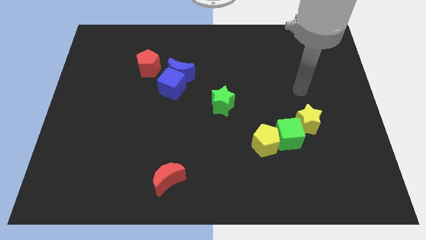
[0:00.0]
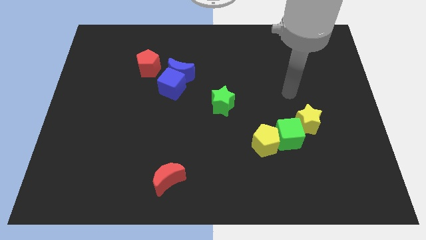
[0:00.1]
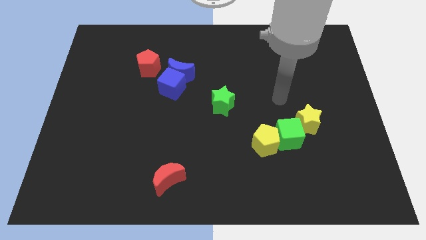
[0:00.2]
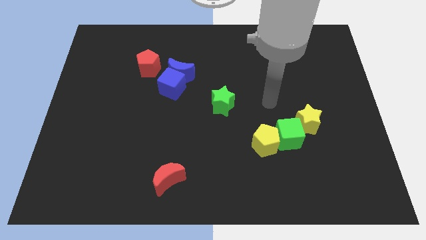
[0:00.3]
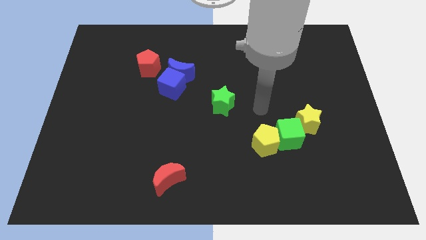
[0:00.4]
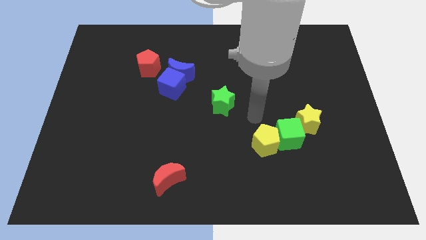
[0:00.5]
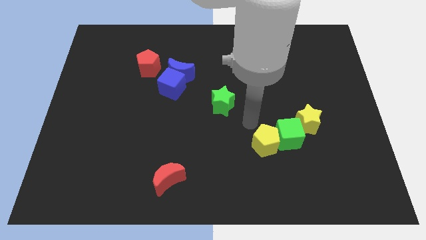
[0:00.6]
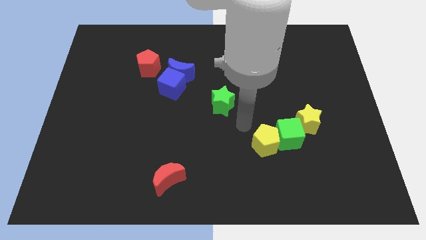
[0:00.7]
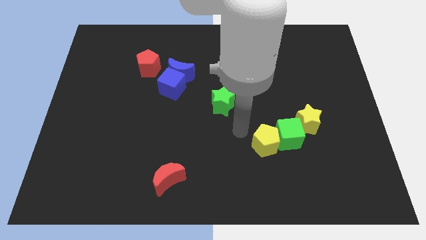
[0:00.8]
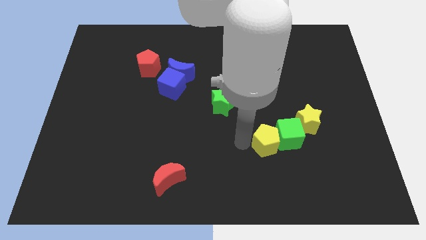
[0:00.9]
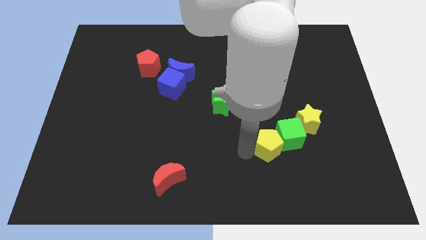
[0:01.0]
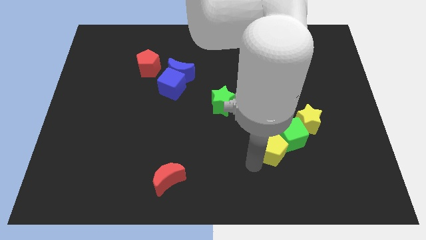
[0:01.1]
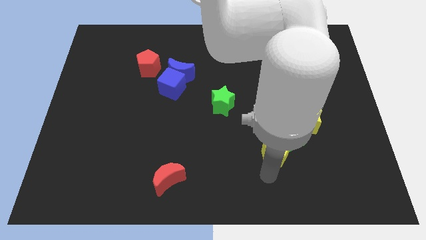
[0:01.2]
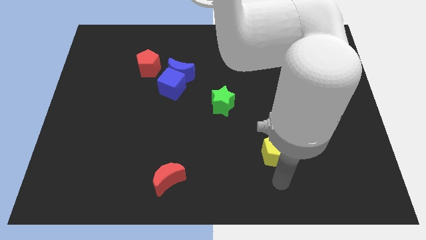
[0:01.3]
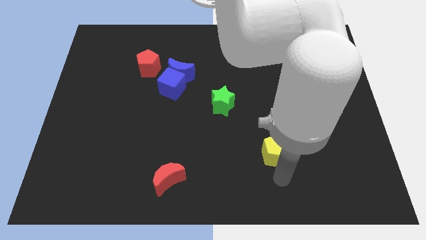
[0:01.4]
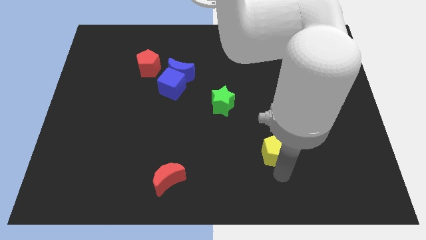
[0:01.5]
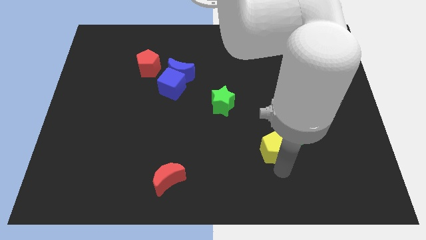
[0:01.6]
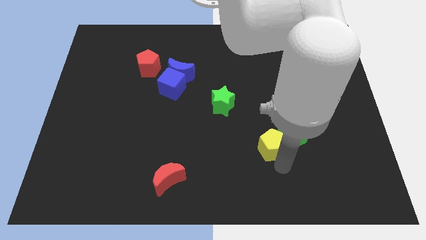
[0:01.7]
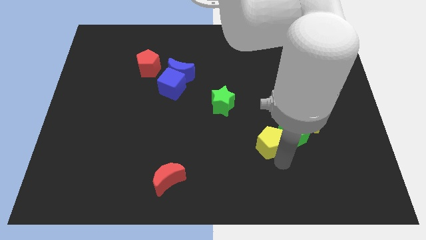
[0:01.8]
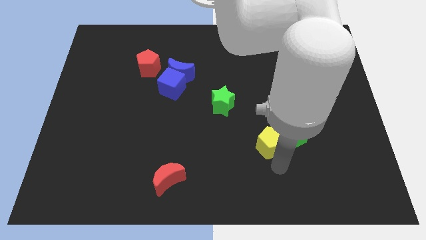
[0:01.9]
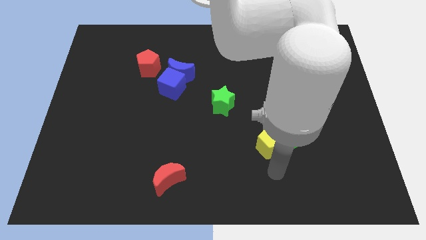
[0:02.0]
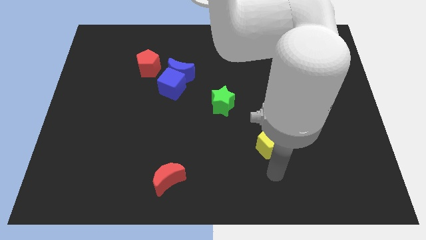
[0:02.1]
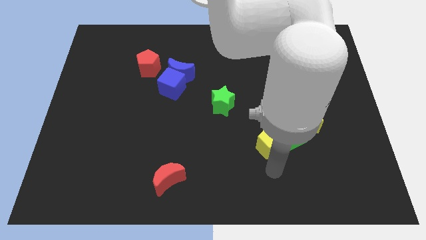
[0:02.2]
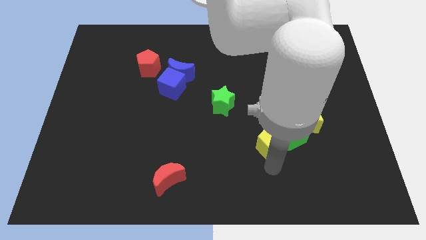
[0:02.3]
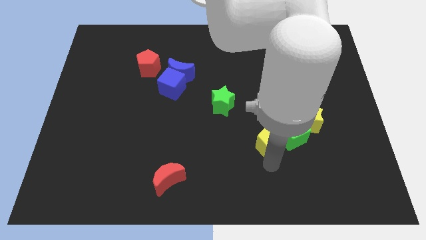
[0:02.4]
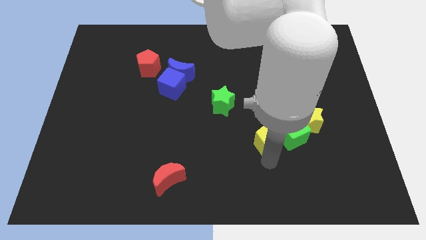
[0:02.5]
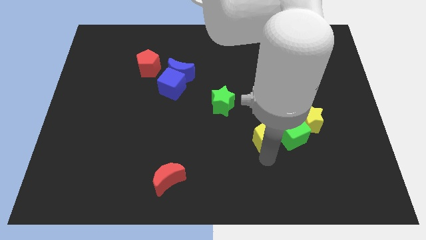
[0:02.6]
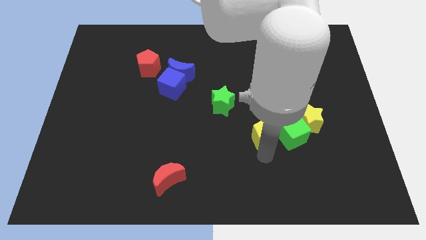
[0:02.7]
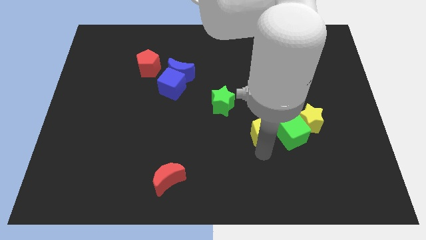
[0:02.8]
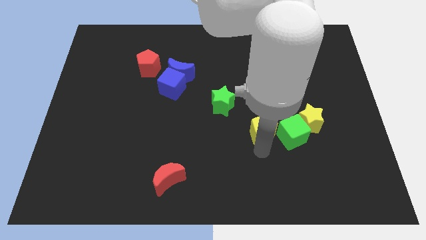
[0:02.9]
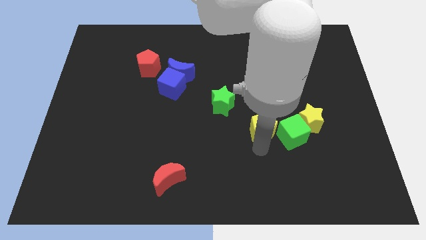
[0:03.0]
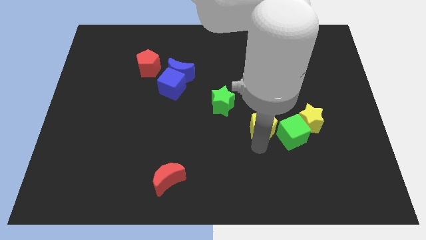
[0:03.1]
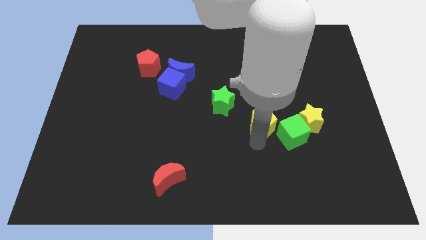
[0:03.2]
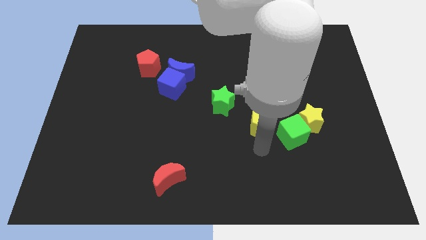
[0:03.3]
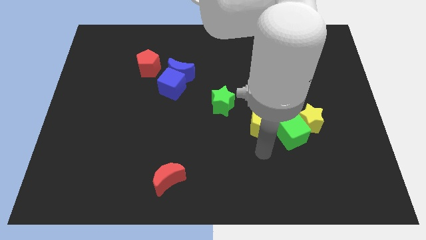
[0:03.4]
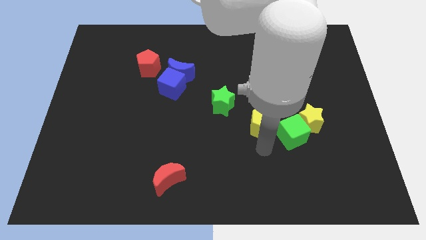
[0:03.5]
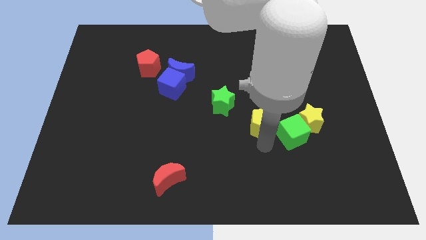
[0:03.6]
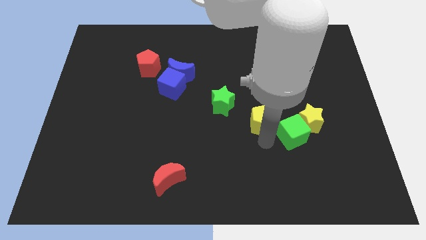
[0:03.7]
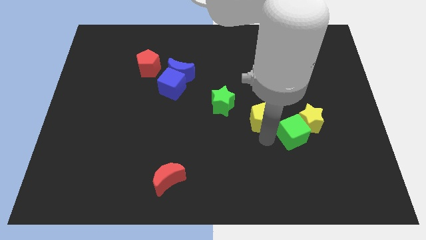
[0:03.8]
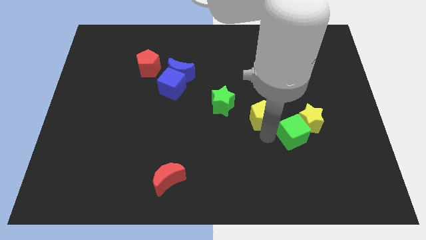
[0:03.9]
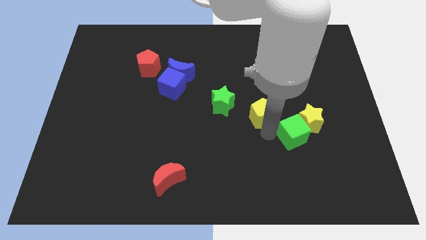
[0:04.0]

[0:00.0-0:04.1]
move the yellow pentagon upwards a little

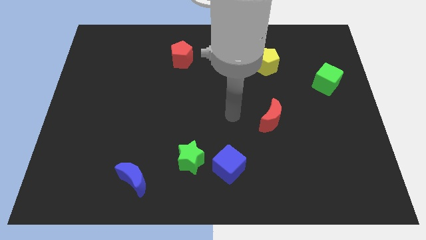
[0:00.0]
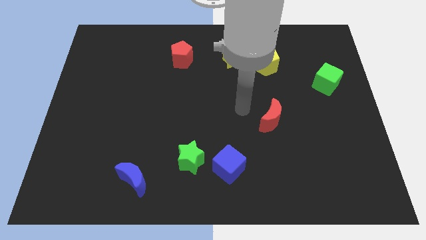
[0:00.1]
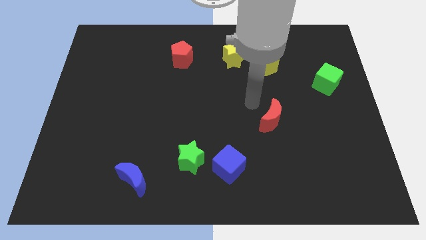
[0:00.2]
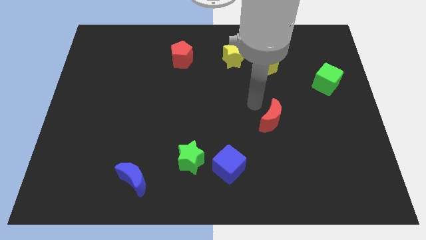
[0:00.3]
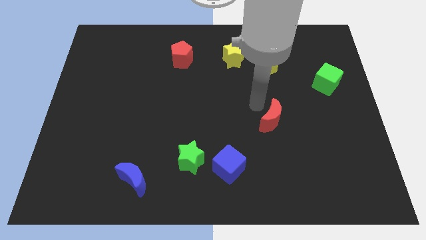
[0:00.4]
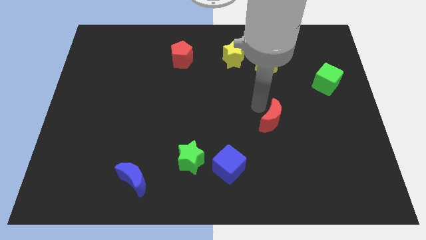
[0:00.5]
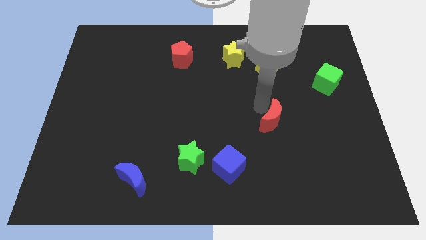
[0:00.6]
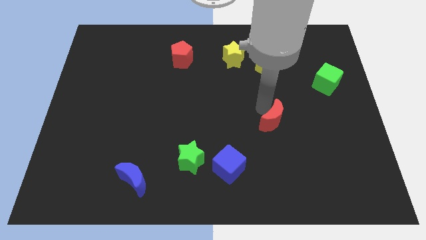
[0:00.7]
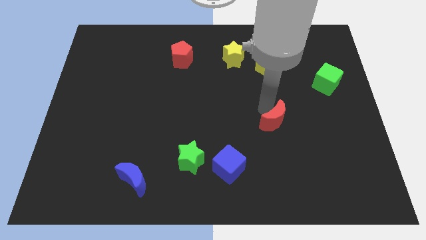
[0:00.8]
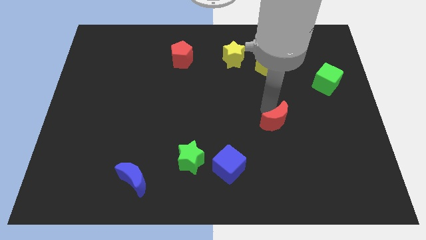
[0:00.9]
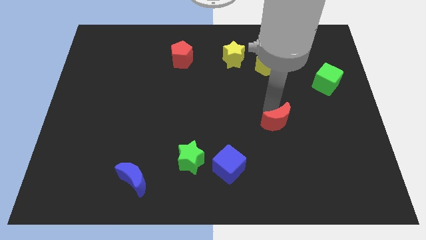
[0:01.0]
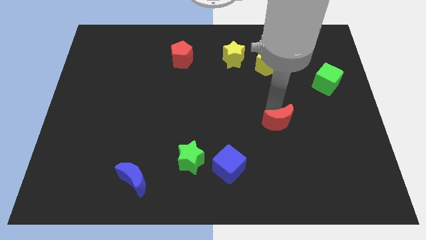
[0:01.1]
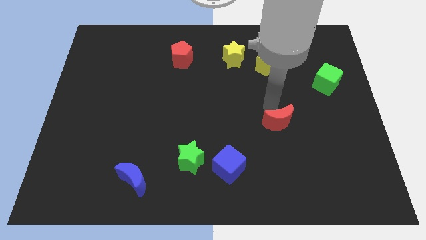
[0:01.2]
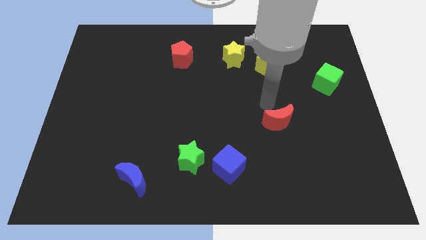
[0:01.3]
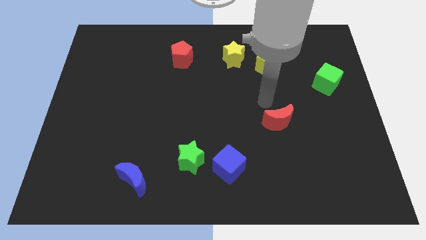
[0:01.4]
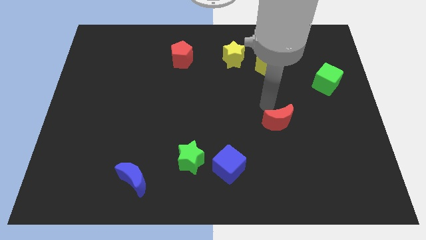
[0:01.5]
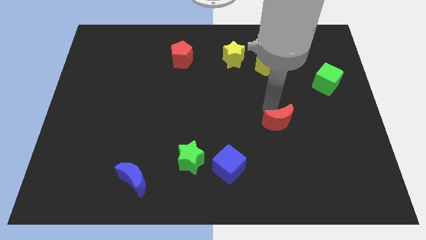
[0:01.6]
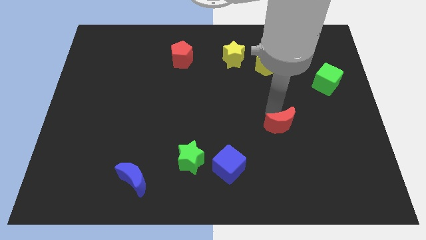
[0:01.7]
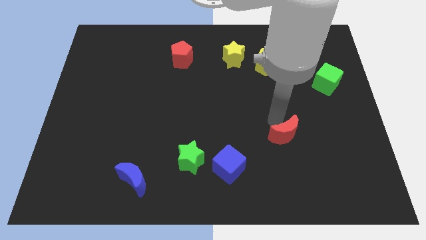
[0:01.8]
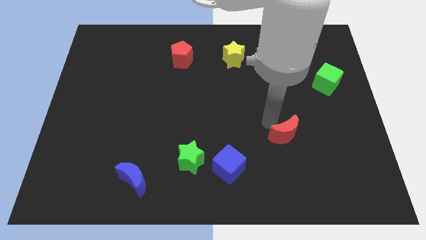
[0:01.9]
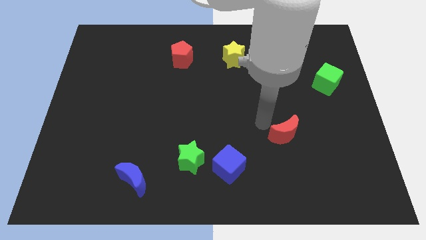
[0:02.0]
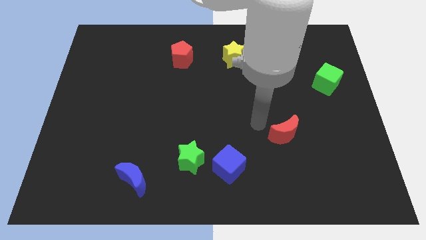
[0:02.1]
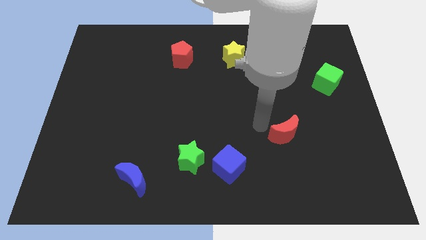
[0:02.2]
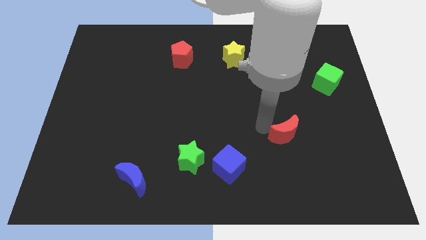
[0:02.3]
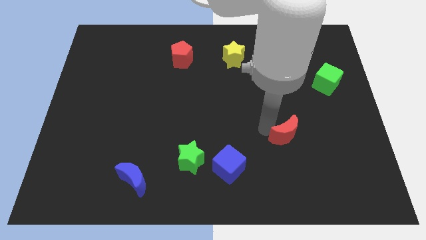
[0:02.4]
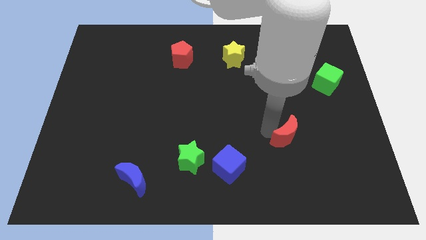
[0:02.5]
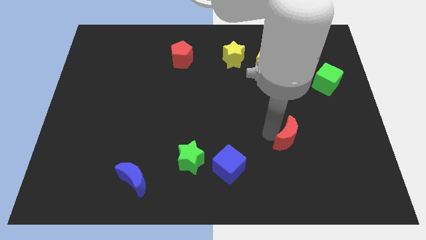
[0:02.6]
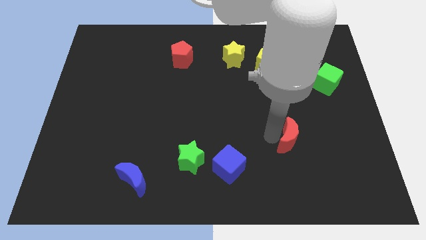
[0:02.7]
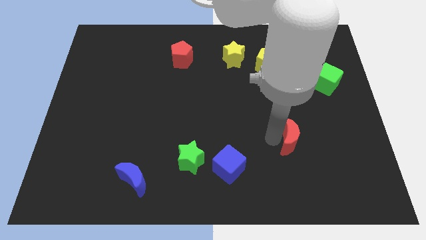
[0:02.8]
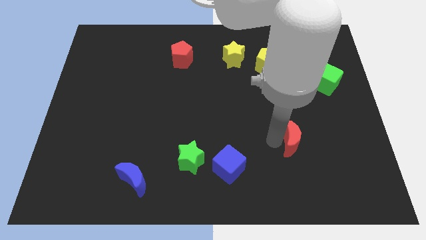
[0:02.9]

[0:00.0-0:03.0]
slide the red moon down and right diagonally a little bit

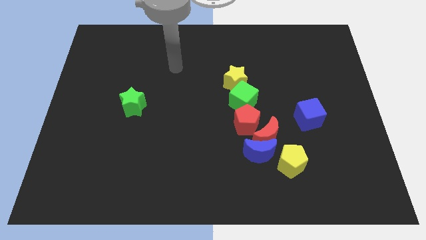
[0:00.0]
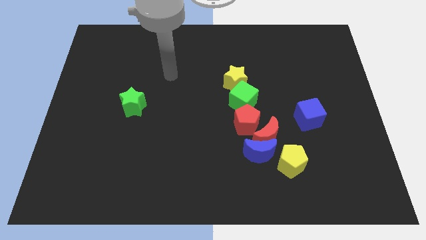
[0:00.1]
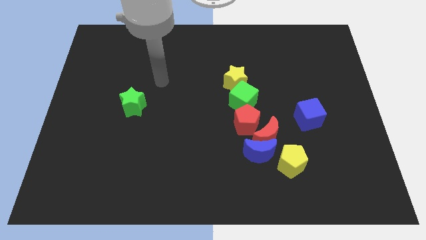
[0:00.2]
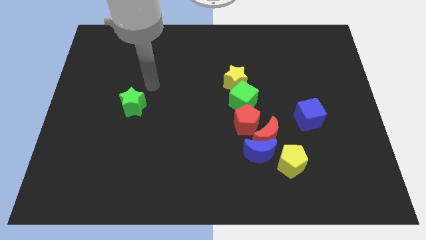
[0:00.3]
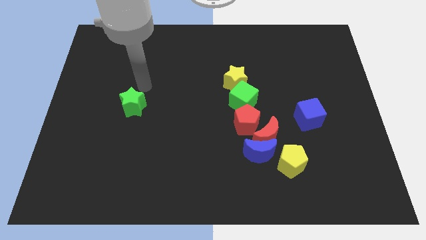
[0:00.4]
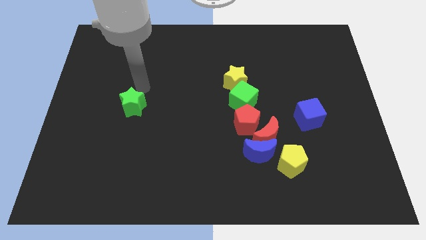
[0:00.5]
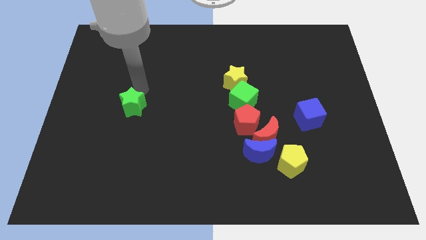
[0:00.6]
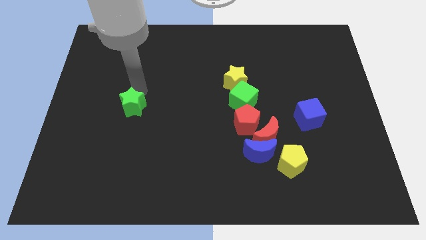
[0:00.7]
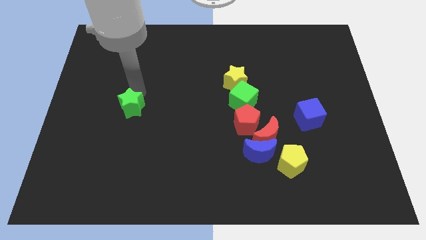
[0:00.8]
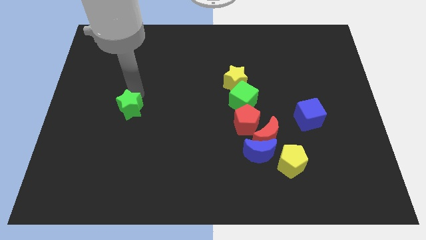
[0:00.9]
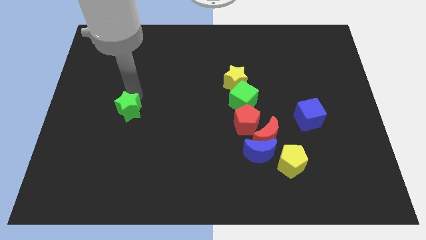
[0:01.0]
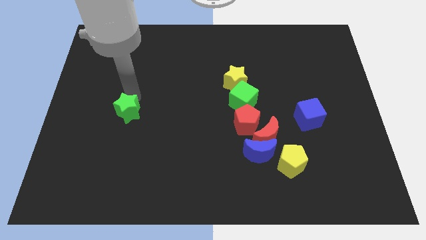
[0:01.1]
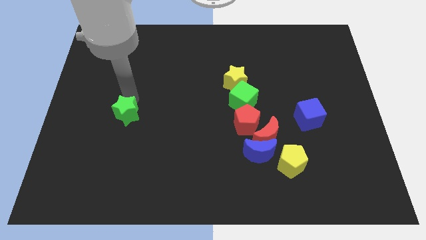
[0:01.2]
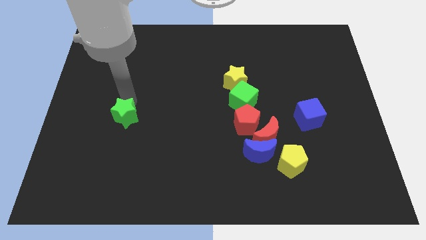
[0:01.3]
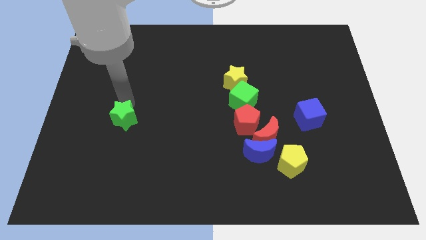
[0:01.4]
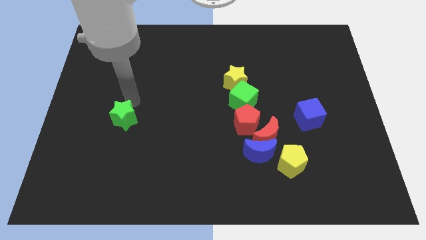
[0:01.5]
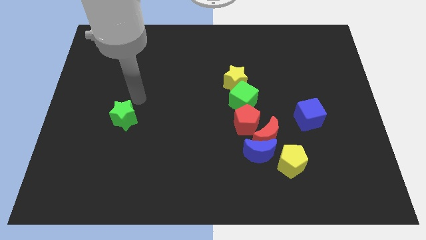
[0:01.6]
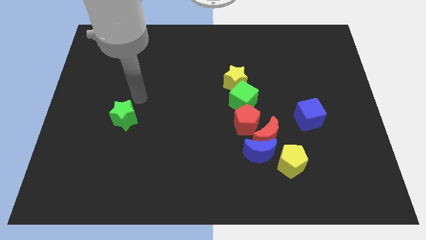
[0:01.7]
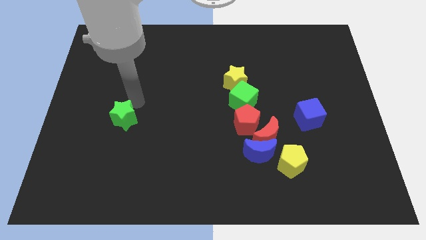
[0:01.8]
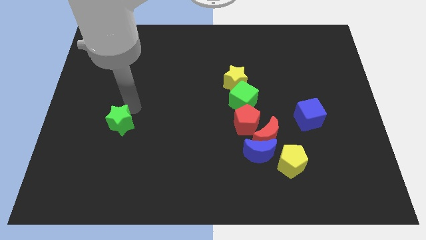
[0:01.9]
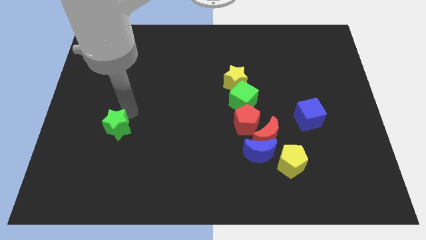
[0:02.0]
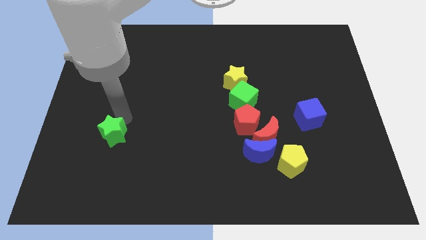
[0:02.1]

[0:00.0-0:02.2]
push the green star down a little
